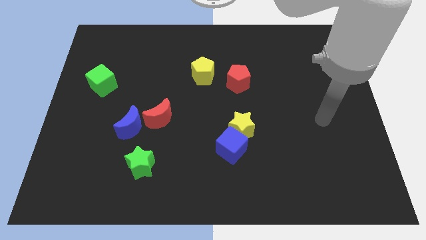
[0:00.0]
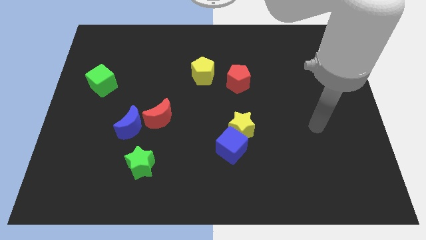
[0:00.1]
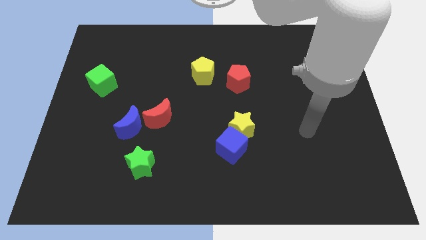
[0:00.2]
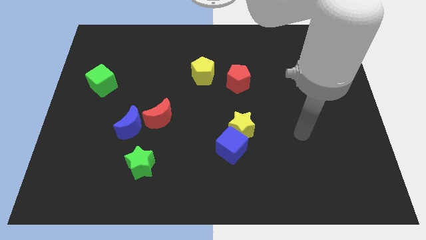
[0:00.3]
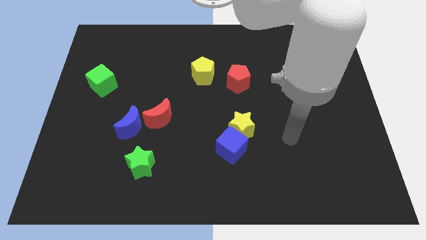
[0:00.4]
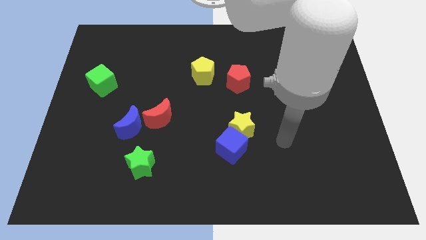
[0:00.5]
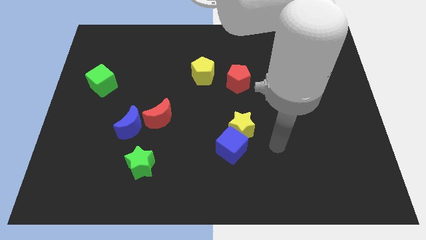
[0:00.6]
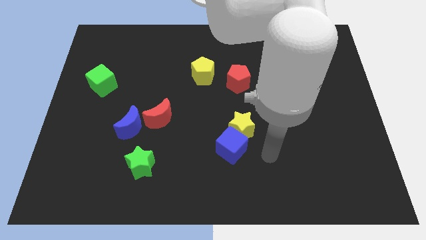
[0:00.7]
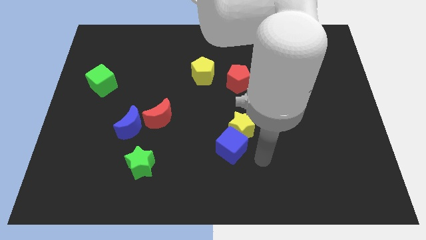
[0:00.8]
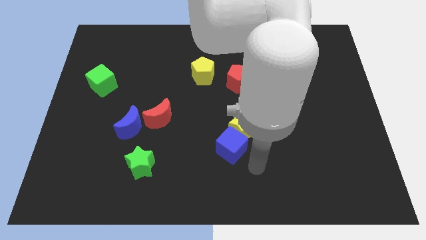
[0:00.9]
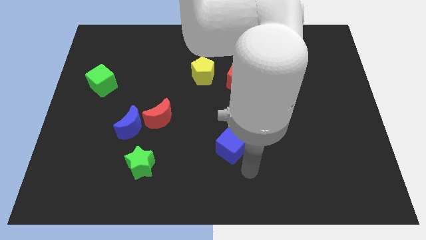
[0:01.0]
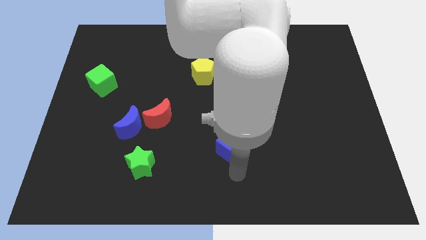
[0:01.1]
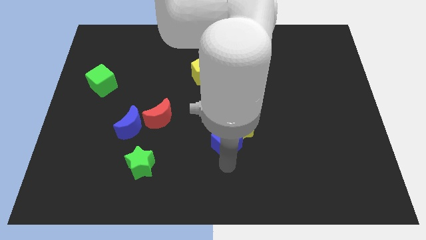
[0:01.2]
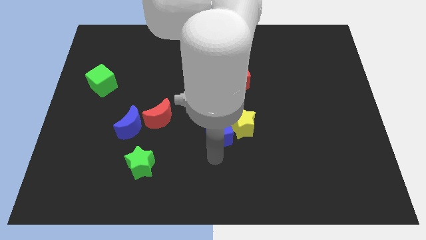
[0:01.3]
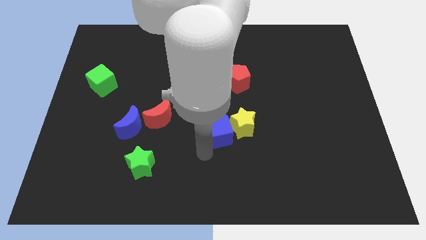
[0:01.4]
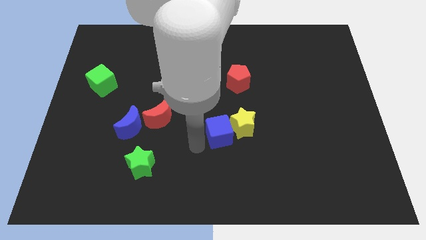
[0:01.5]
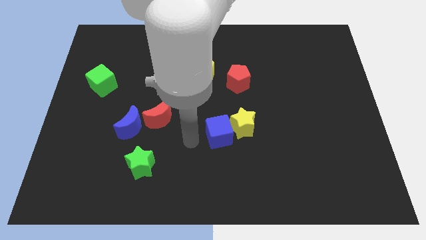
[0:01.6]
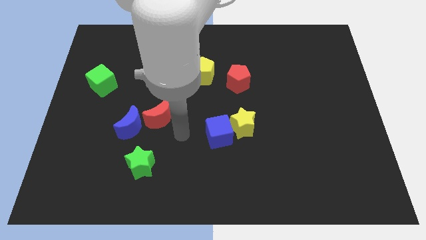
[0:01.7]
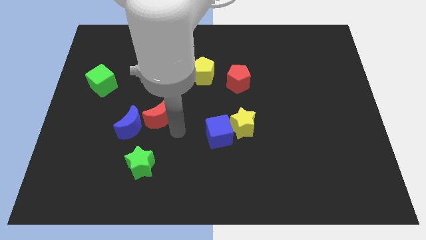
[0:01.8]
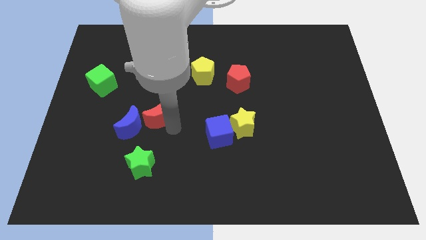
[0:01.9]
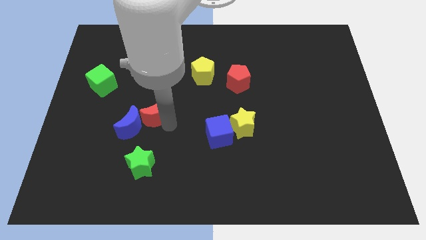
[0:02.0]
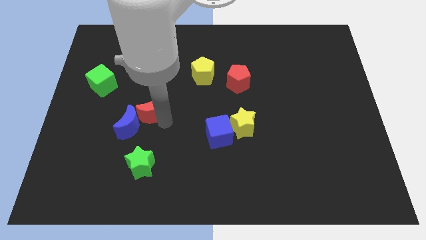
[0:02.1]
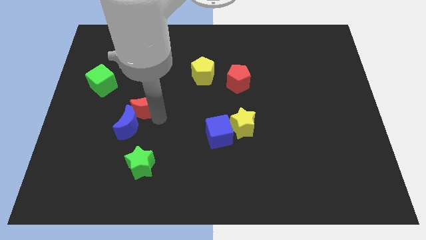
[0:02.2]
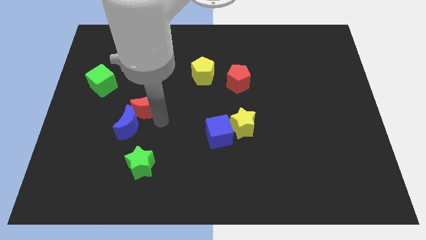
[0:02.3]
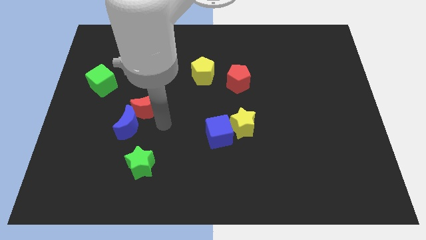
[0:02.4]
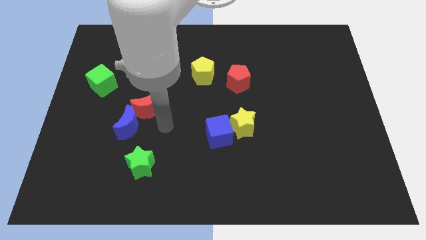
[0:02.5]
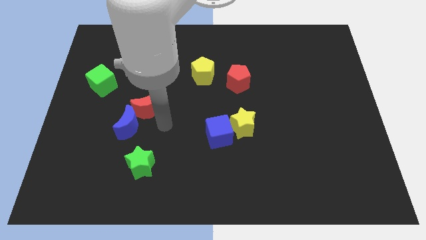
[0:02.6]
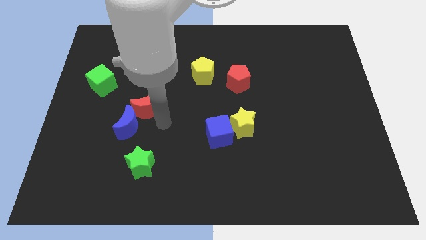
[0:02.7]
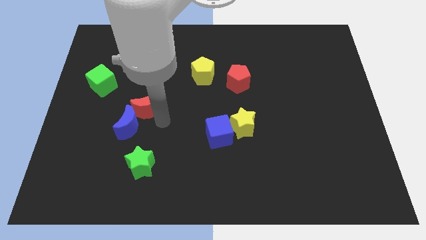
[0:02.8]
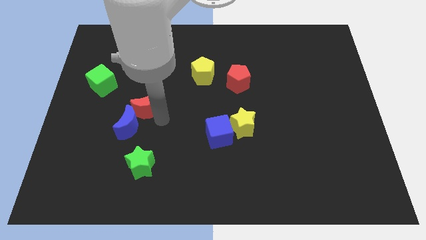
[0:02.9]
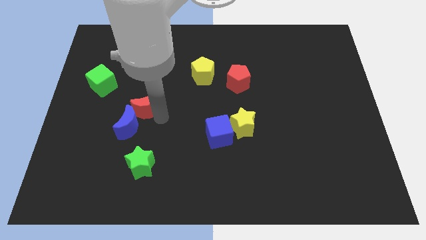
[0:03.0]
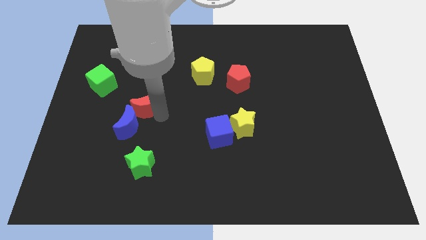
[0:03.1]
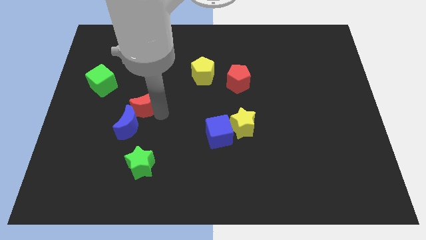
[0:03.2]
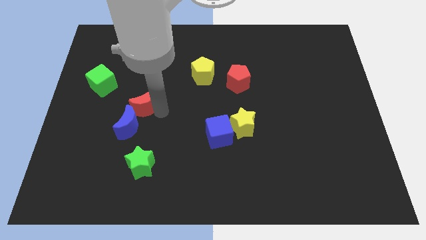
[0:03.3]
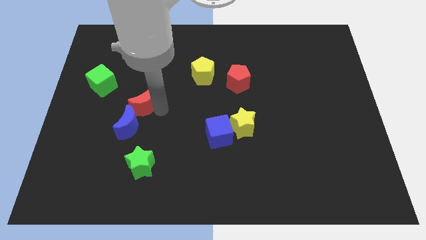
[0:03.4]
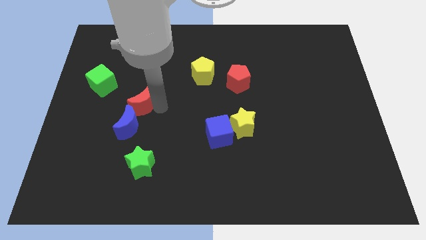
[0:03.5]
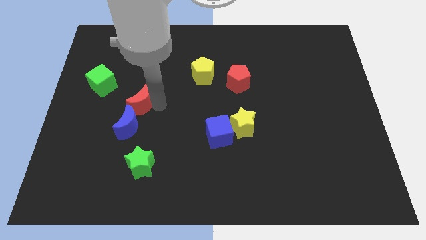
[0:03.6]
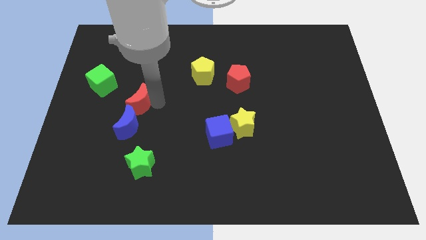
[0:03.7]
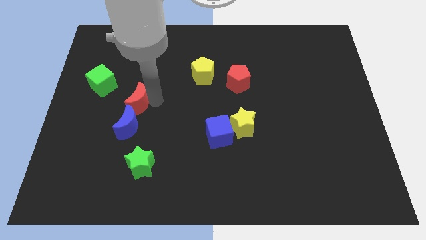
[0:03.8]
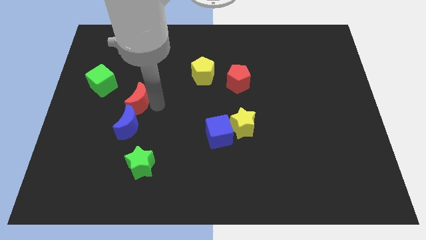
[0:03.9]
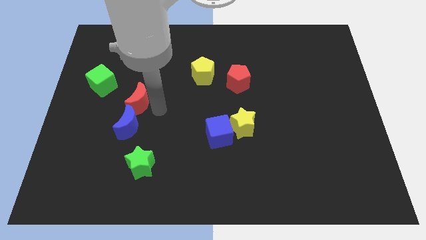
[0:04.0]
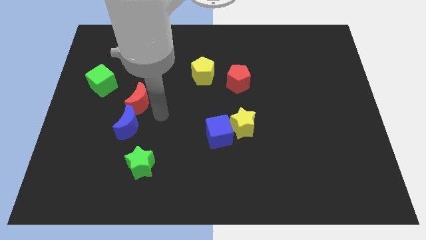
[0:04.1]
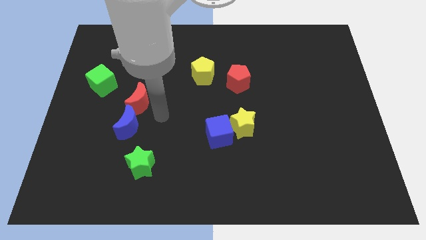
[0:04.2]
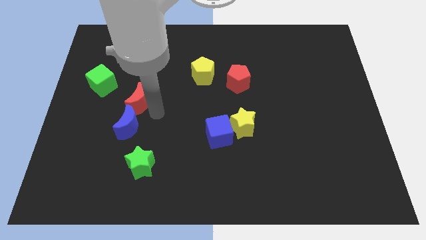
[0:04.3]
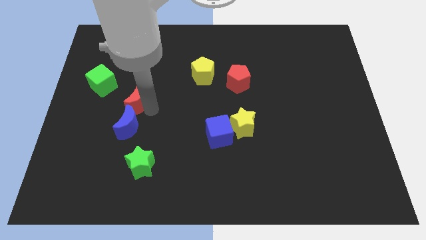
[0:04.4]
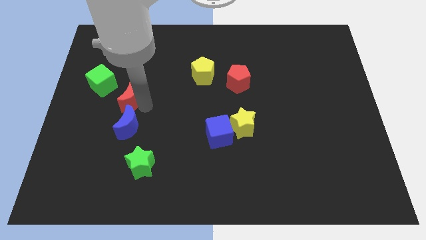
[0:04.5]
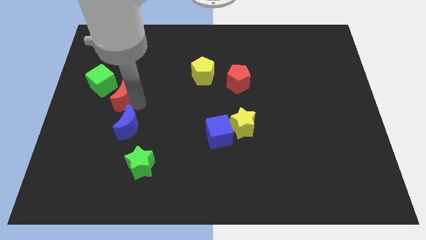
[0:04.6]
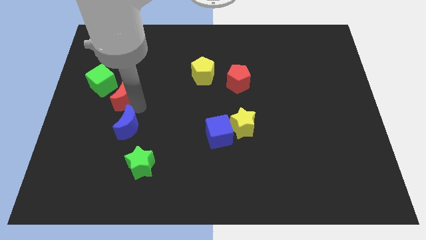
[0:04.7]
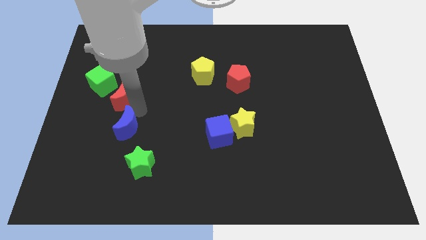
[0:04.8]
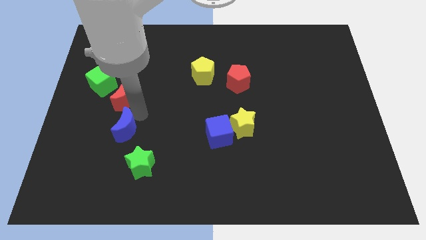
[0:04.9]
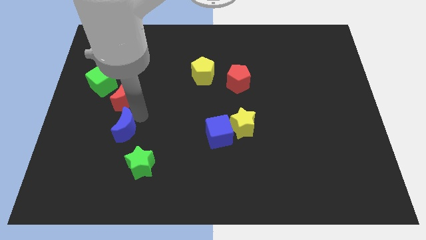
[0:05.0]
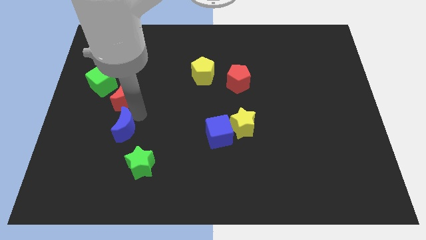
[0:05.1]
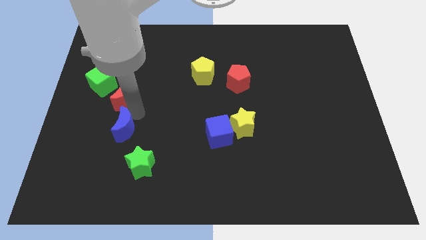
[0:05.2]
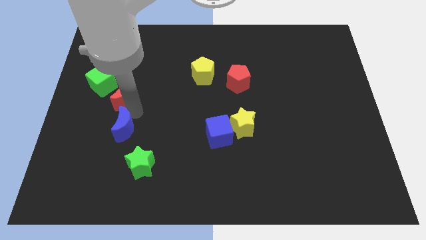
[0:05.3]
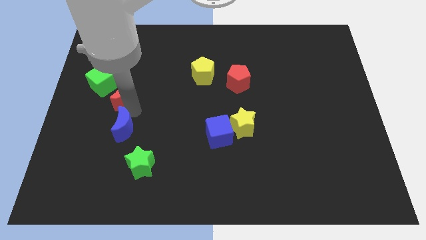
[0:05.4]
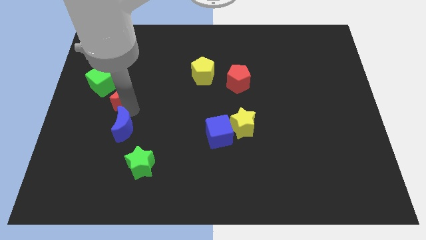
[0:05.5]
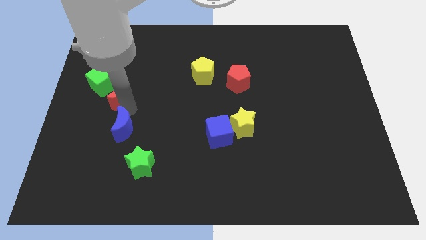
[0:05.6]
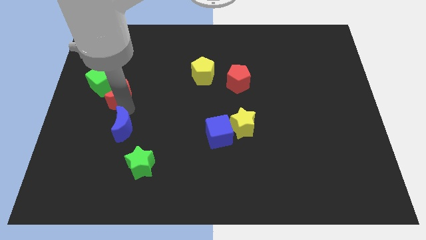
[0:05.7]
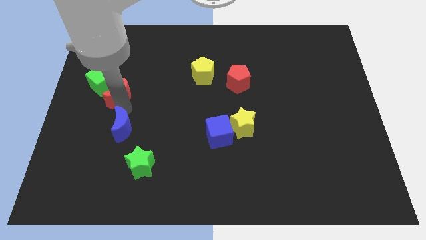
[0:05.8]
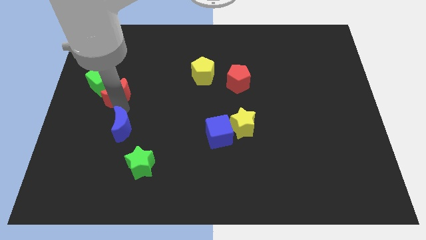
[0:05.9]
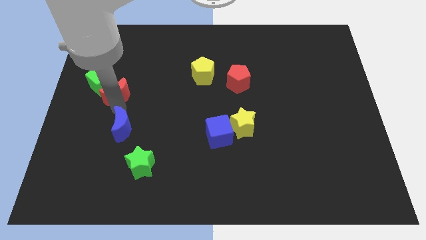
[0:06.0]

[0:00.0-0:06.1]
push the red moon close to the green cube

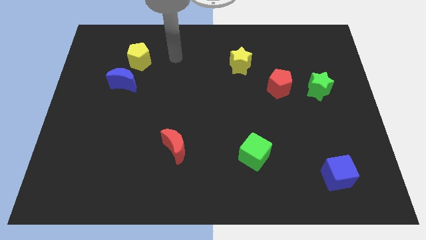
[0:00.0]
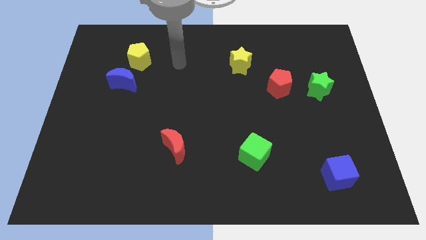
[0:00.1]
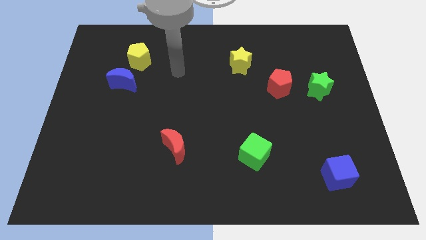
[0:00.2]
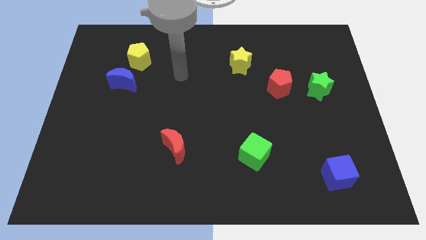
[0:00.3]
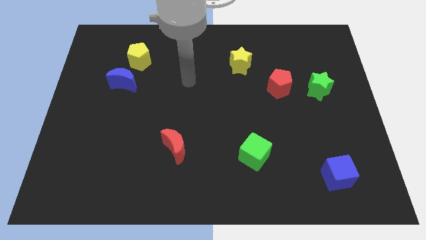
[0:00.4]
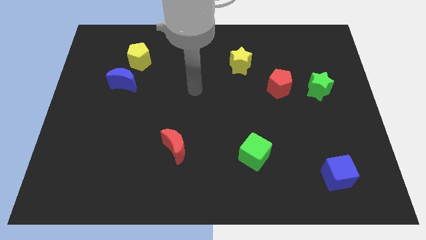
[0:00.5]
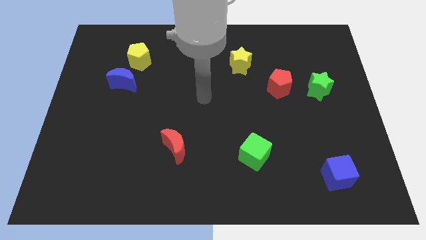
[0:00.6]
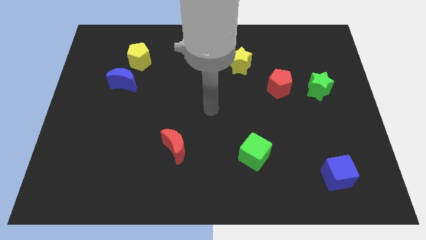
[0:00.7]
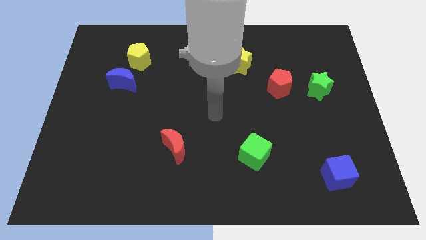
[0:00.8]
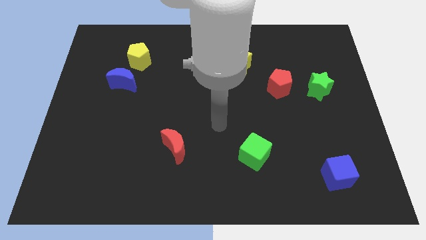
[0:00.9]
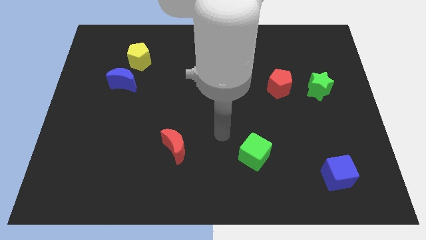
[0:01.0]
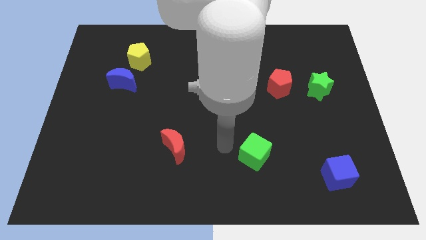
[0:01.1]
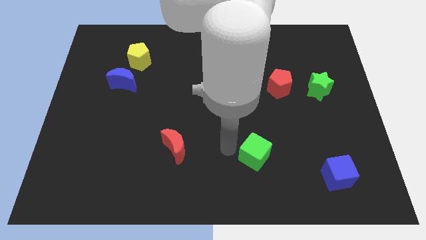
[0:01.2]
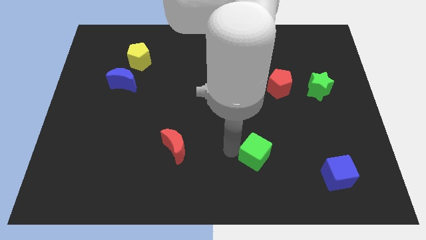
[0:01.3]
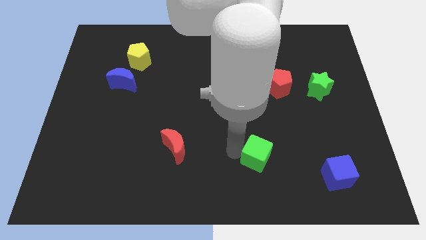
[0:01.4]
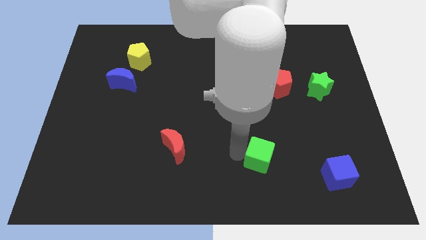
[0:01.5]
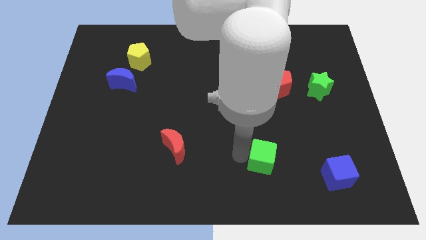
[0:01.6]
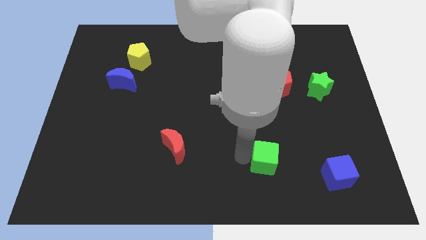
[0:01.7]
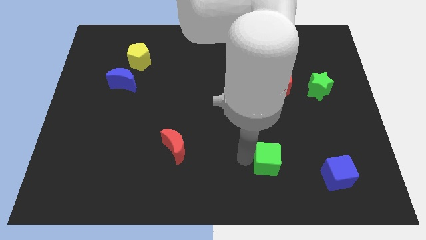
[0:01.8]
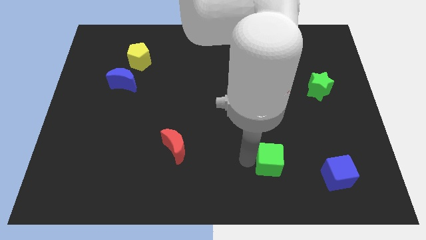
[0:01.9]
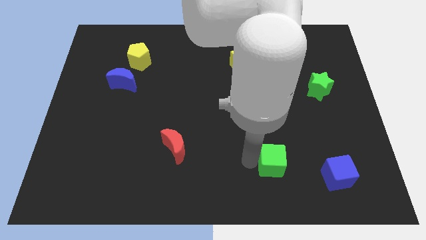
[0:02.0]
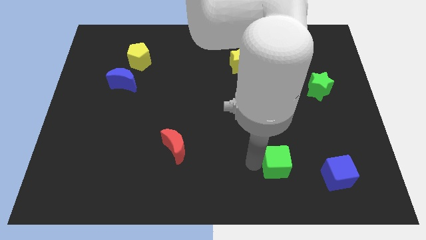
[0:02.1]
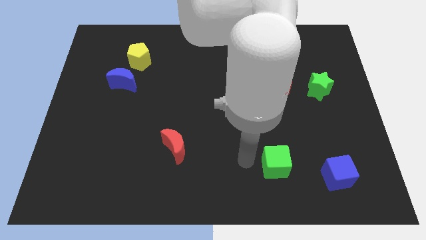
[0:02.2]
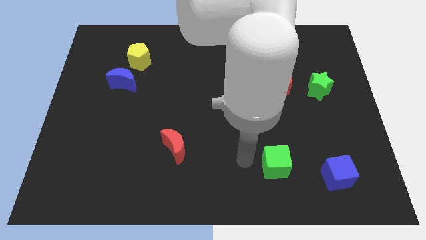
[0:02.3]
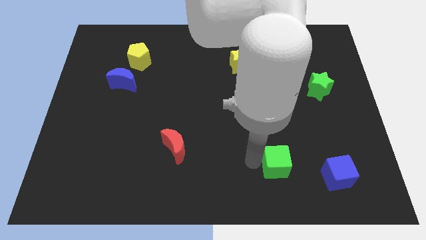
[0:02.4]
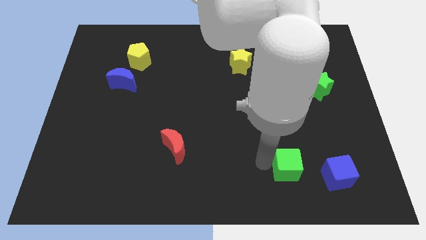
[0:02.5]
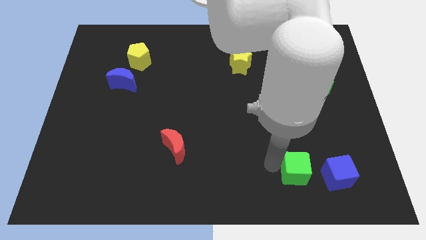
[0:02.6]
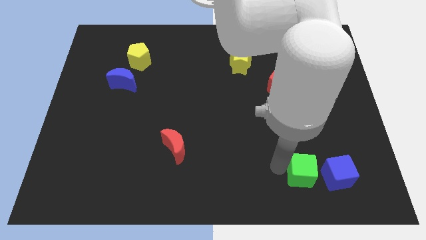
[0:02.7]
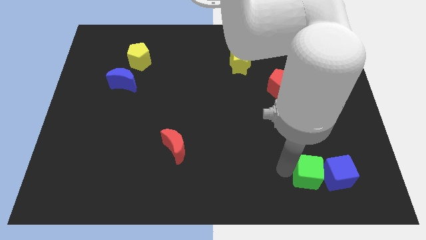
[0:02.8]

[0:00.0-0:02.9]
slide the green cube close to the blue cube
